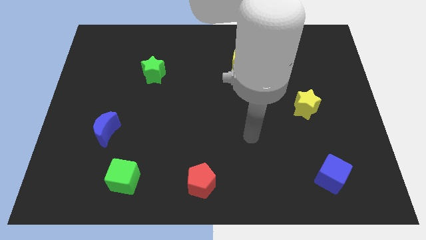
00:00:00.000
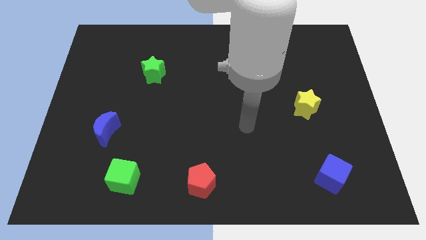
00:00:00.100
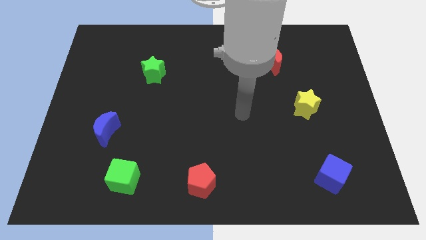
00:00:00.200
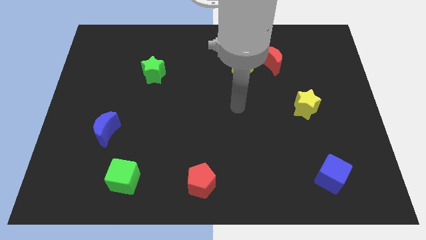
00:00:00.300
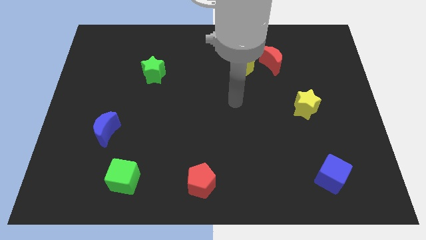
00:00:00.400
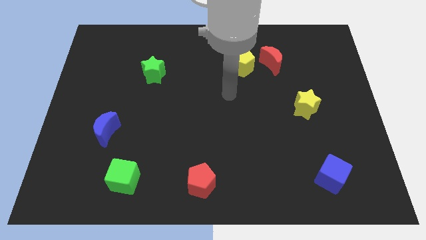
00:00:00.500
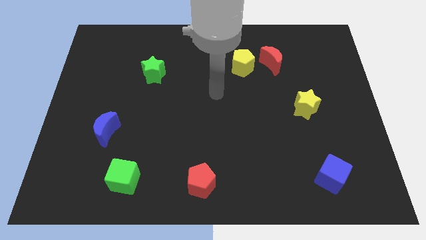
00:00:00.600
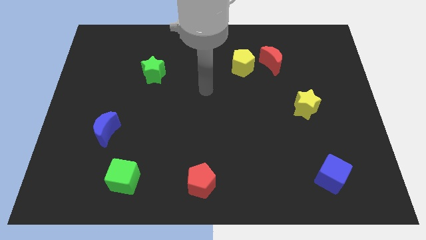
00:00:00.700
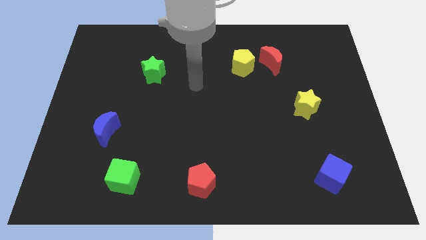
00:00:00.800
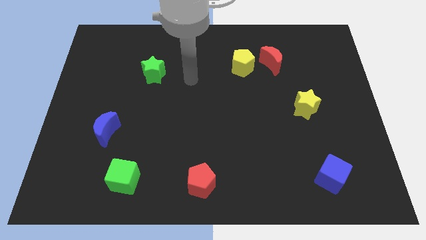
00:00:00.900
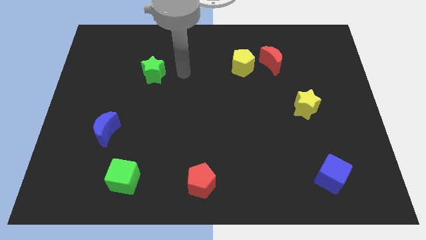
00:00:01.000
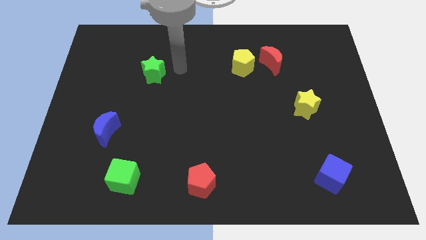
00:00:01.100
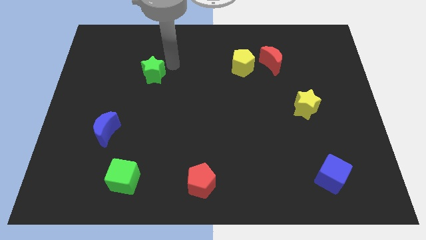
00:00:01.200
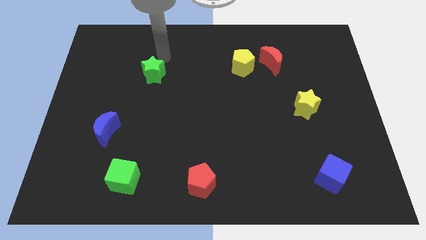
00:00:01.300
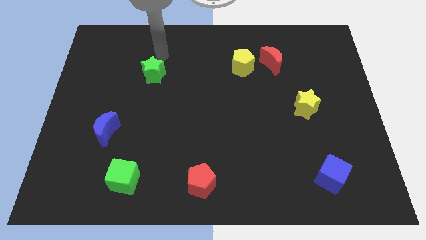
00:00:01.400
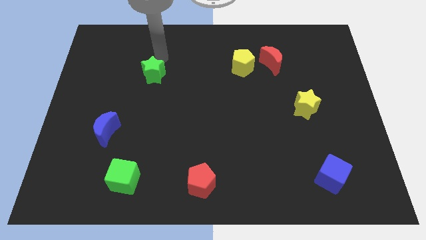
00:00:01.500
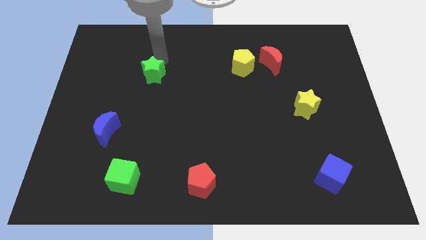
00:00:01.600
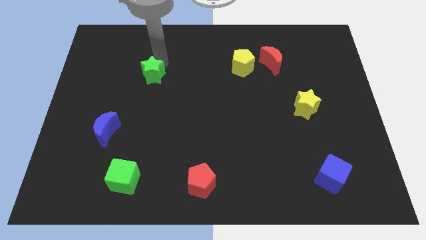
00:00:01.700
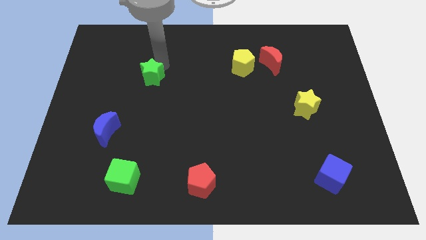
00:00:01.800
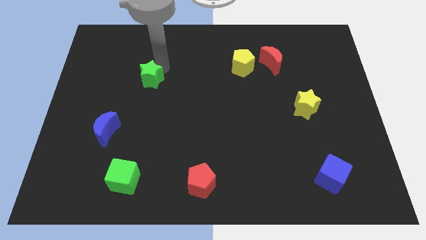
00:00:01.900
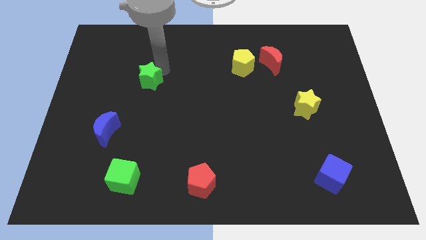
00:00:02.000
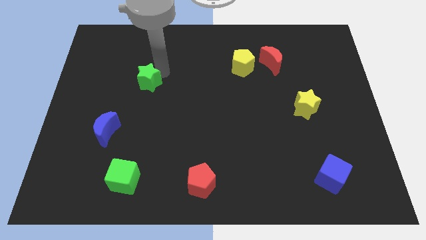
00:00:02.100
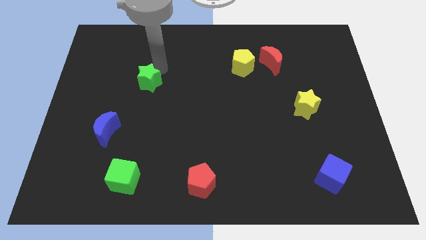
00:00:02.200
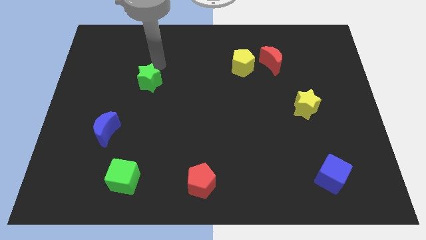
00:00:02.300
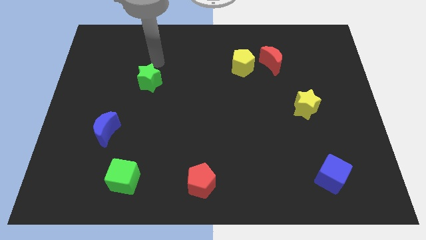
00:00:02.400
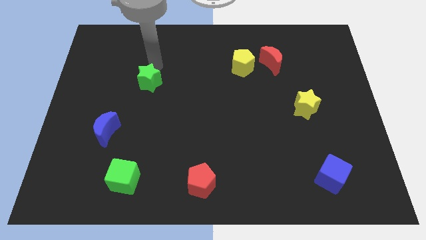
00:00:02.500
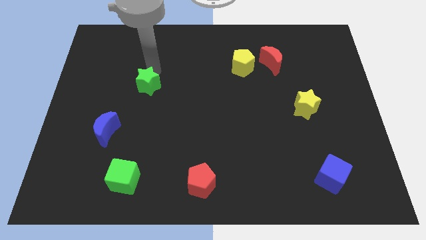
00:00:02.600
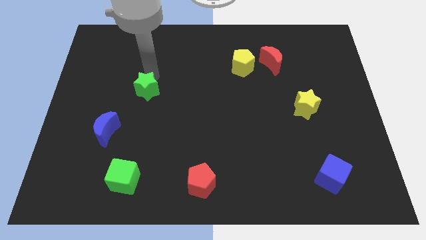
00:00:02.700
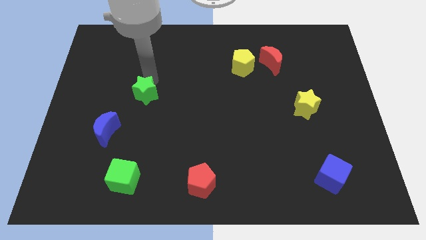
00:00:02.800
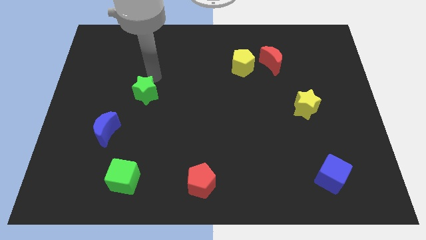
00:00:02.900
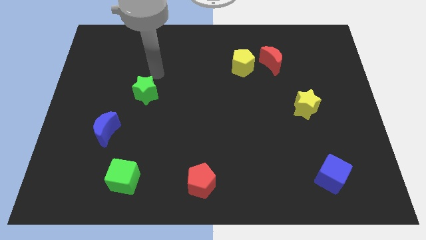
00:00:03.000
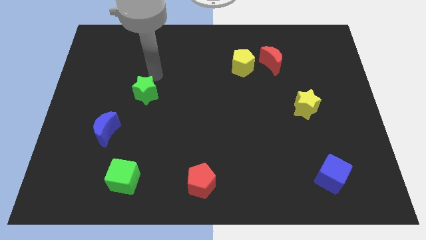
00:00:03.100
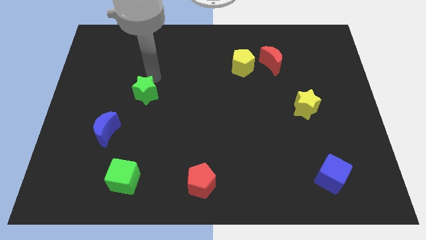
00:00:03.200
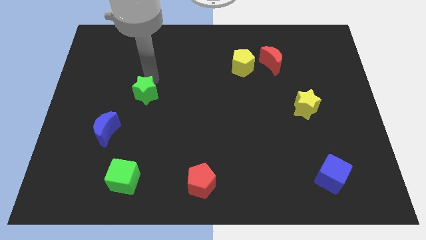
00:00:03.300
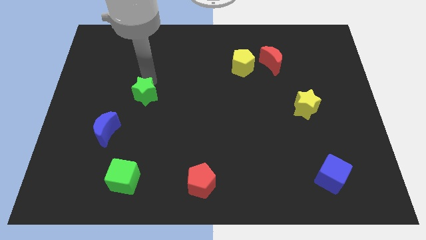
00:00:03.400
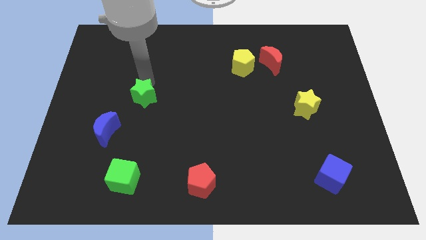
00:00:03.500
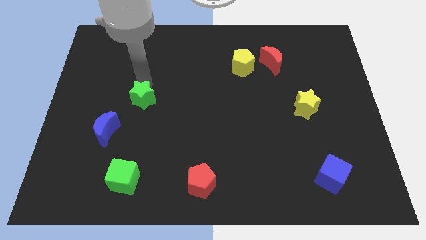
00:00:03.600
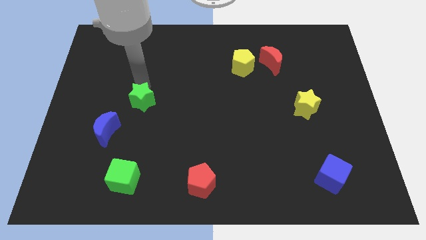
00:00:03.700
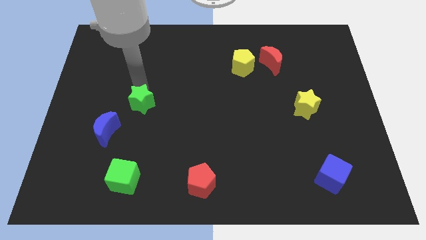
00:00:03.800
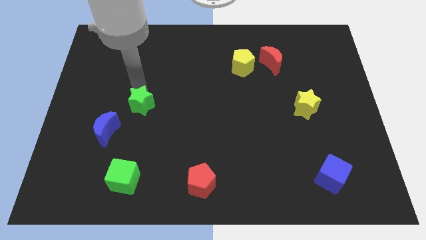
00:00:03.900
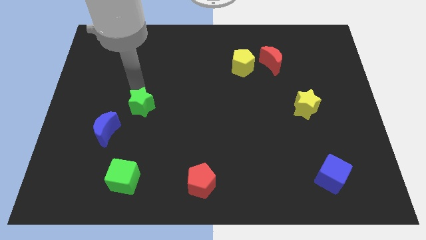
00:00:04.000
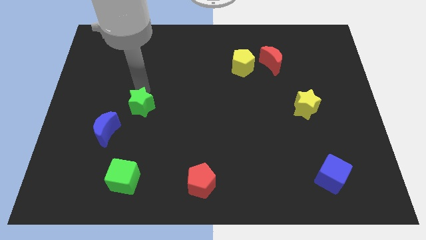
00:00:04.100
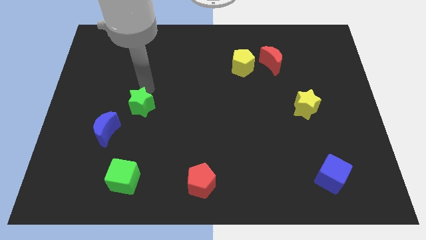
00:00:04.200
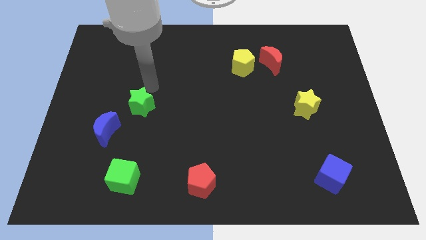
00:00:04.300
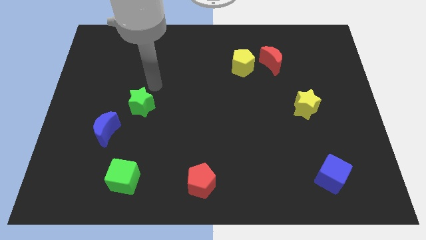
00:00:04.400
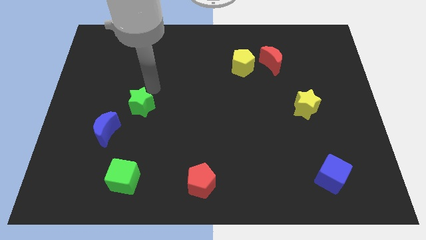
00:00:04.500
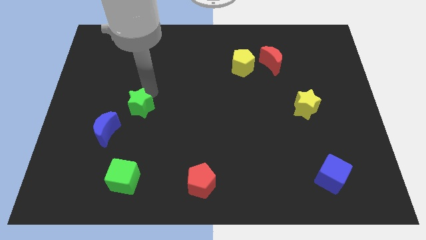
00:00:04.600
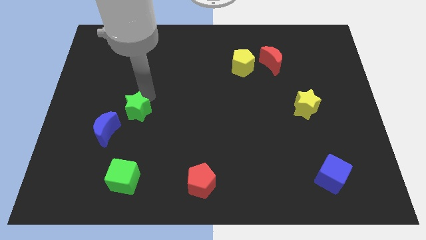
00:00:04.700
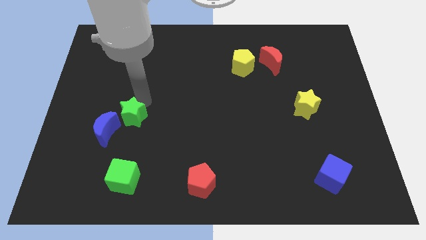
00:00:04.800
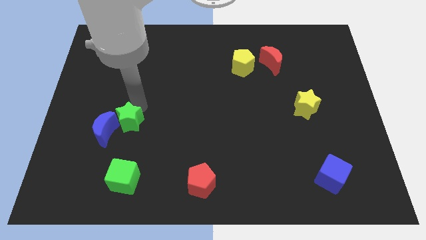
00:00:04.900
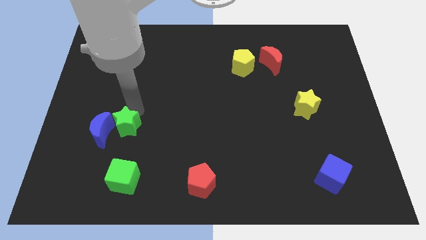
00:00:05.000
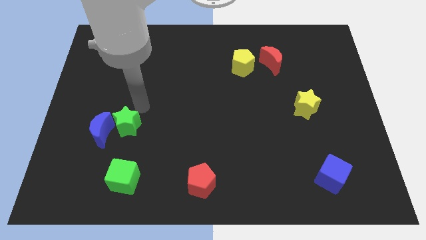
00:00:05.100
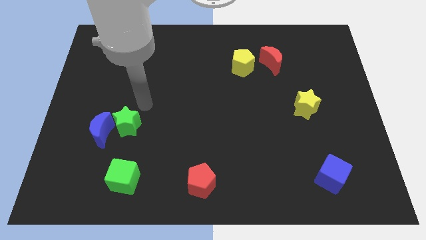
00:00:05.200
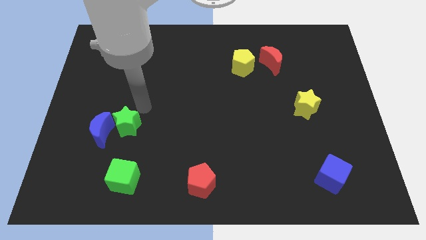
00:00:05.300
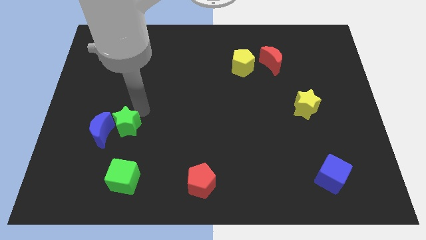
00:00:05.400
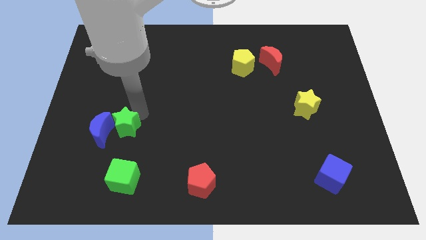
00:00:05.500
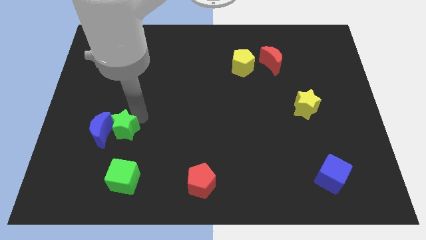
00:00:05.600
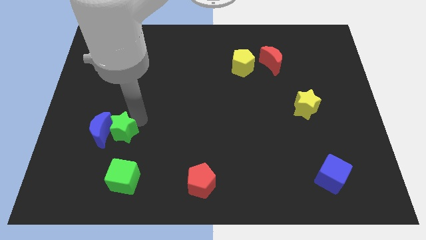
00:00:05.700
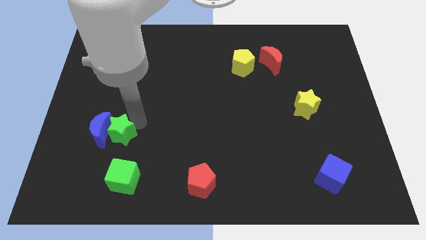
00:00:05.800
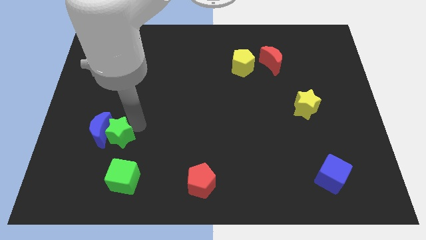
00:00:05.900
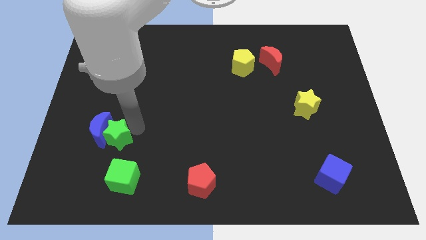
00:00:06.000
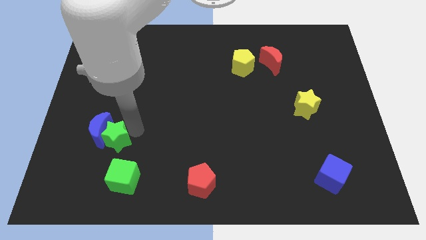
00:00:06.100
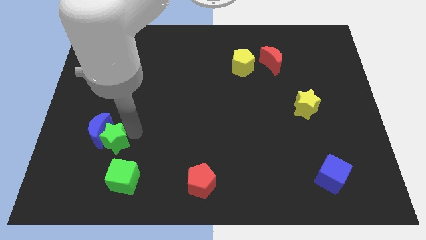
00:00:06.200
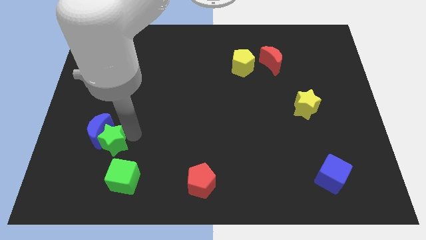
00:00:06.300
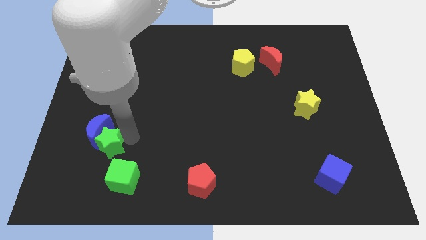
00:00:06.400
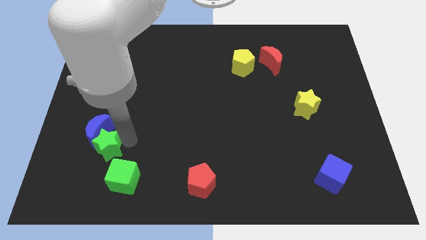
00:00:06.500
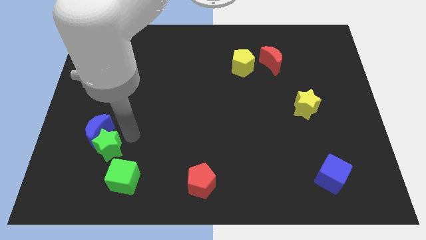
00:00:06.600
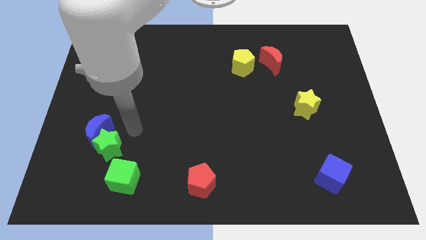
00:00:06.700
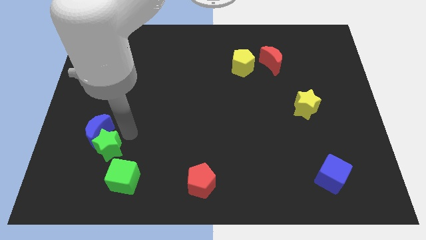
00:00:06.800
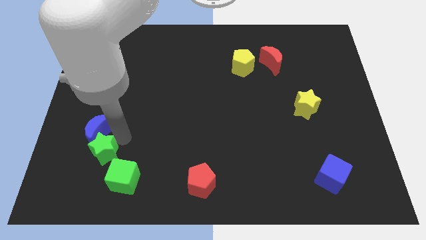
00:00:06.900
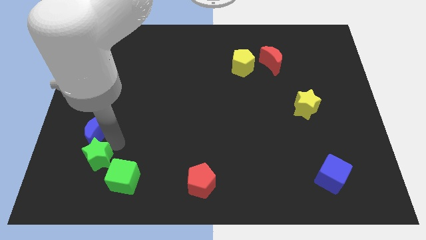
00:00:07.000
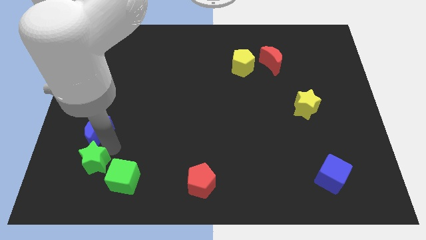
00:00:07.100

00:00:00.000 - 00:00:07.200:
slide the green star left of the green cube

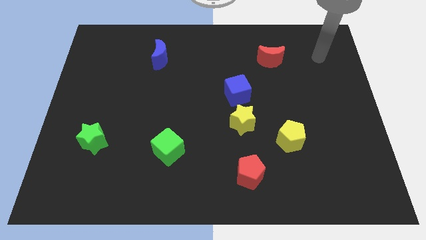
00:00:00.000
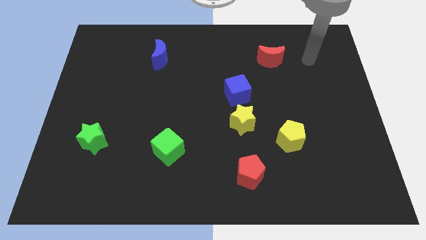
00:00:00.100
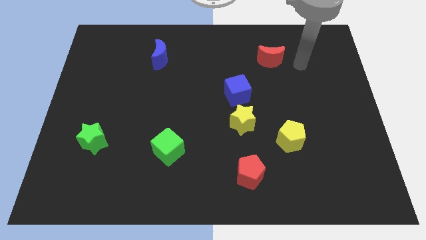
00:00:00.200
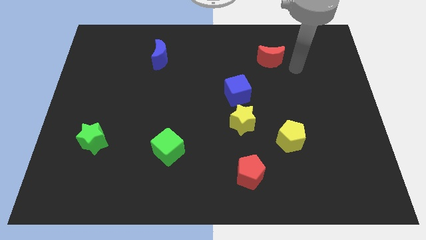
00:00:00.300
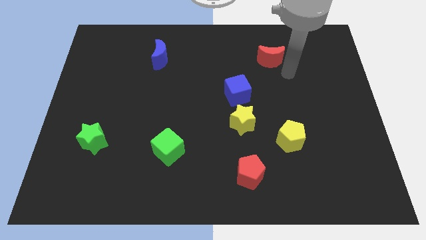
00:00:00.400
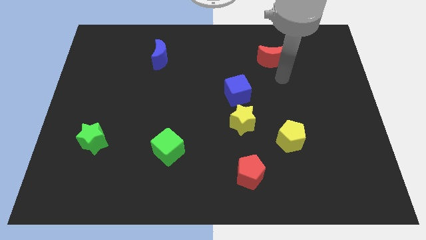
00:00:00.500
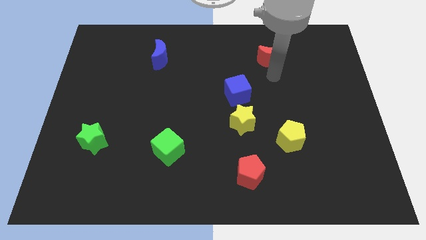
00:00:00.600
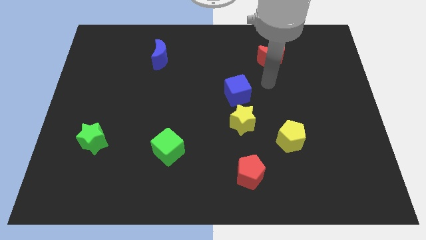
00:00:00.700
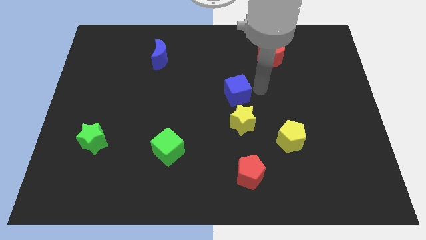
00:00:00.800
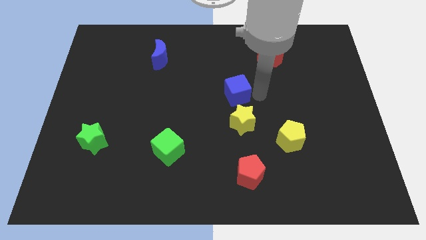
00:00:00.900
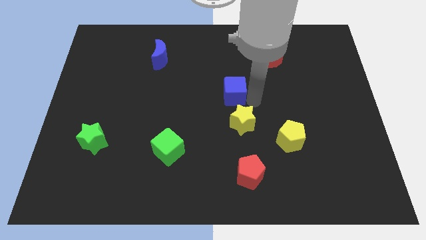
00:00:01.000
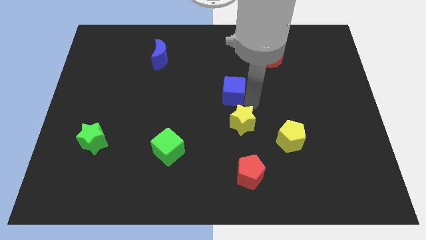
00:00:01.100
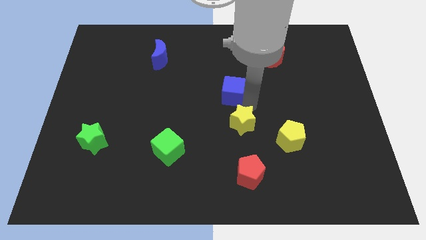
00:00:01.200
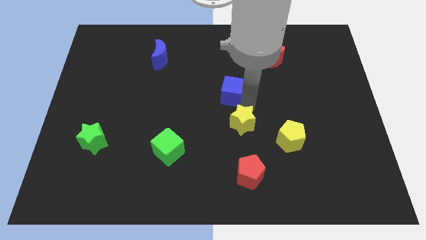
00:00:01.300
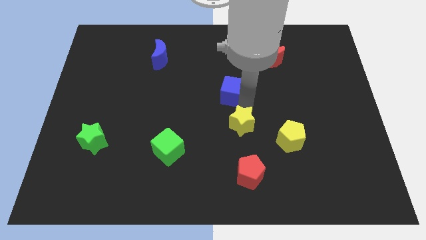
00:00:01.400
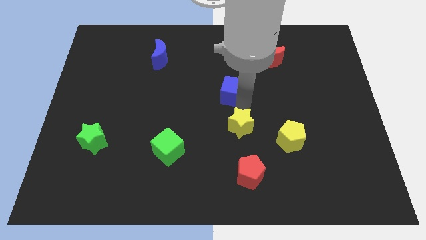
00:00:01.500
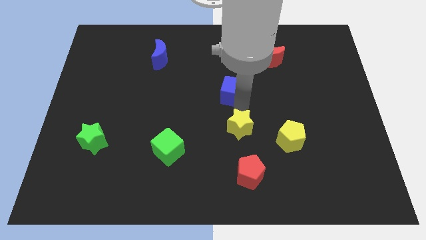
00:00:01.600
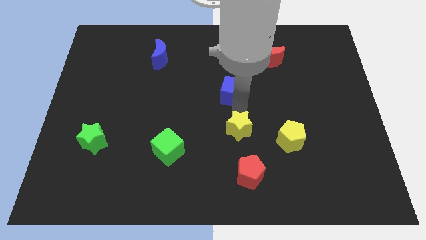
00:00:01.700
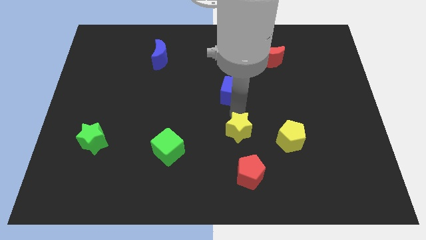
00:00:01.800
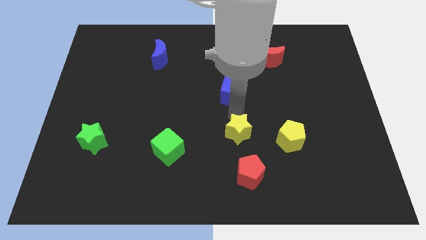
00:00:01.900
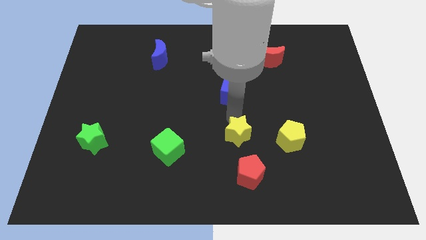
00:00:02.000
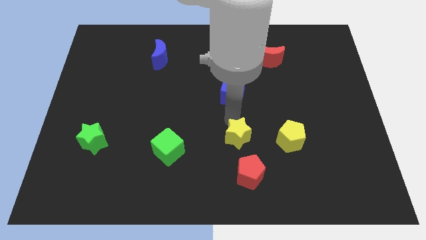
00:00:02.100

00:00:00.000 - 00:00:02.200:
slide the yellow star to the right of the green cube
